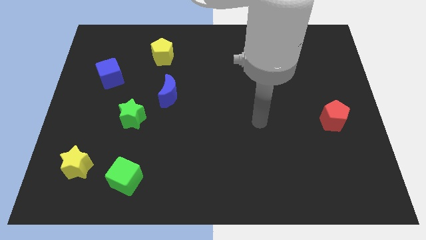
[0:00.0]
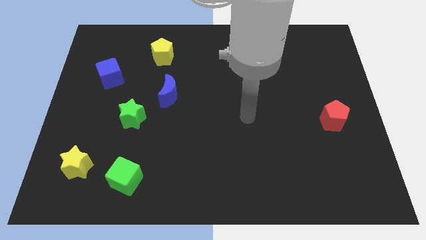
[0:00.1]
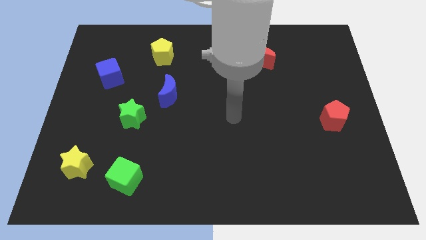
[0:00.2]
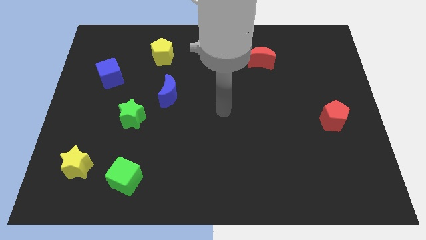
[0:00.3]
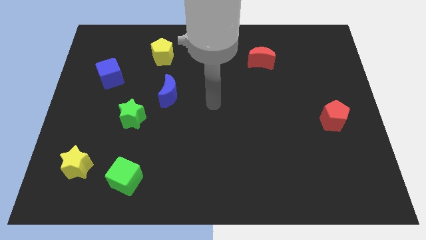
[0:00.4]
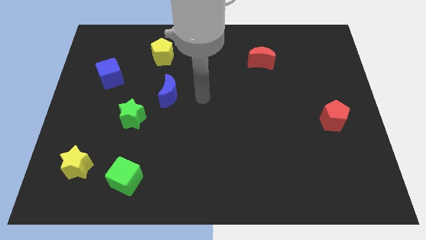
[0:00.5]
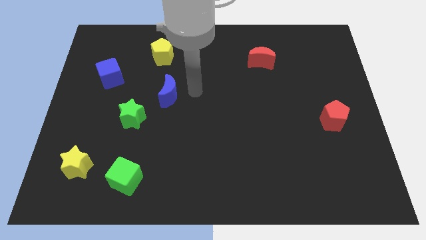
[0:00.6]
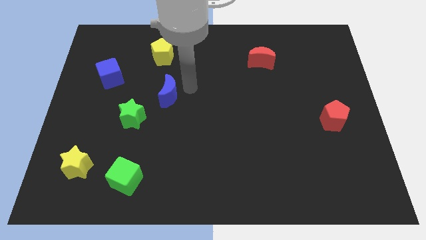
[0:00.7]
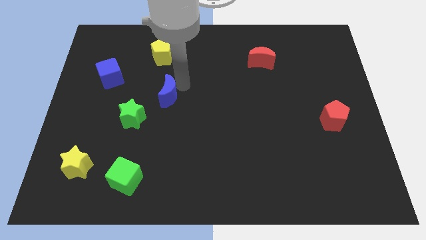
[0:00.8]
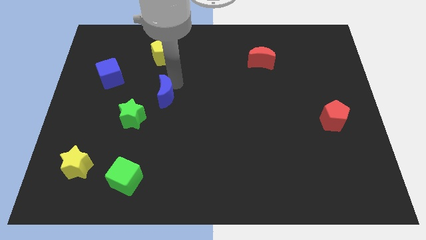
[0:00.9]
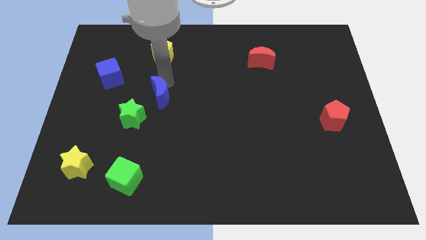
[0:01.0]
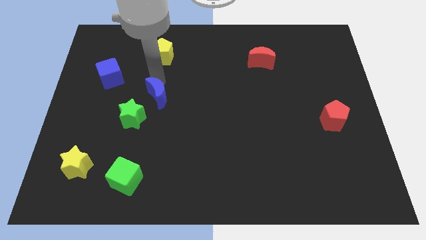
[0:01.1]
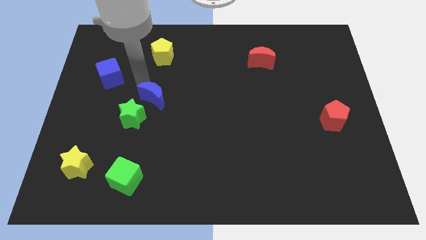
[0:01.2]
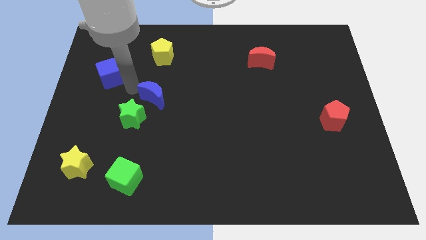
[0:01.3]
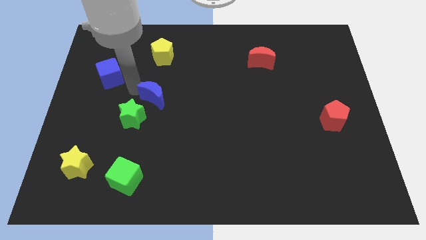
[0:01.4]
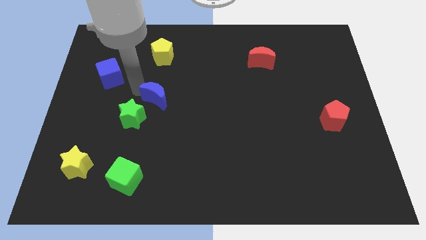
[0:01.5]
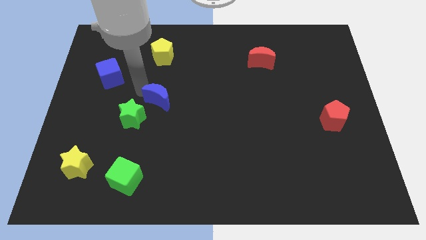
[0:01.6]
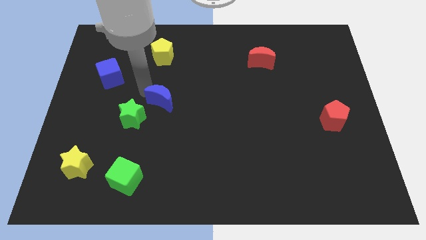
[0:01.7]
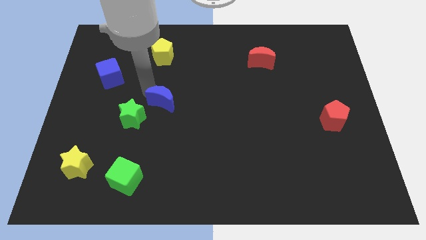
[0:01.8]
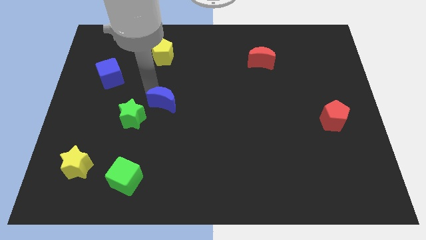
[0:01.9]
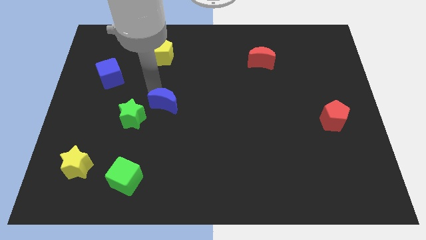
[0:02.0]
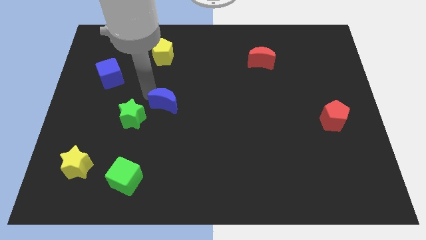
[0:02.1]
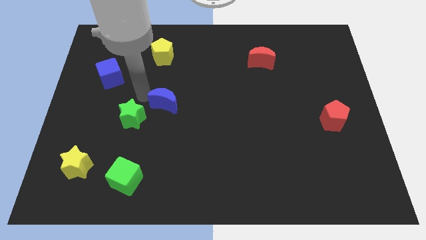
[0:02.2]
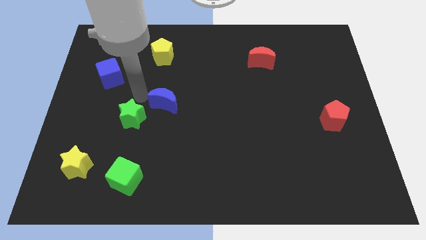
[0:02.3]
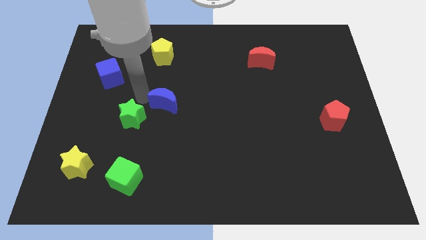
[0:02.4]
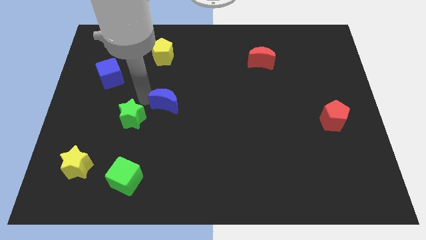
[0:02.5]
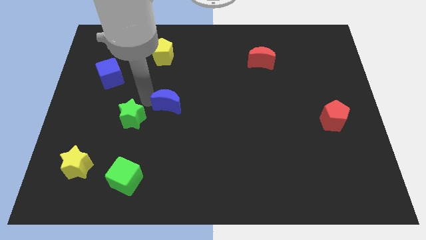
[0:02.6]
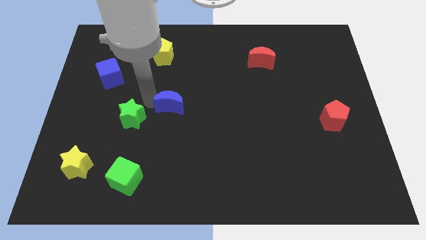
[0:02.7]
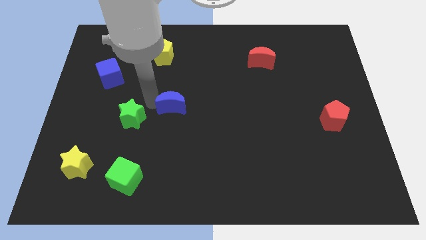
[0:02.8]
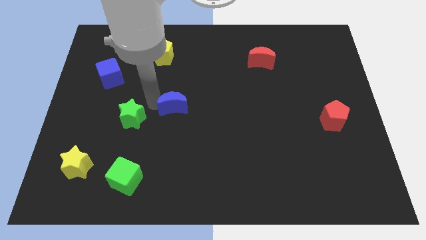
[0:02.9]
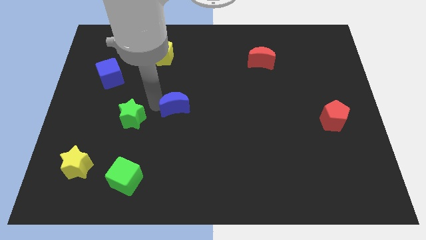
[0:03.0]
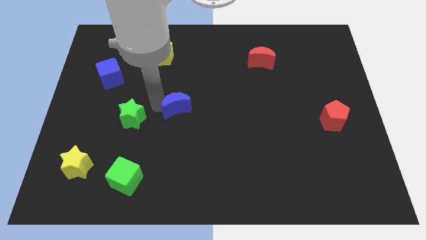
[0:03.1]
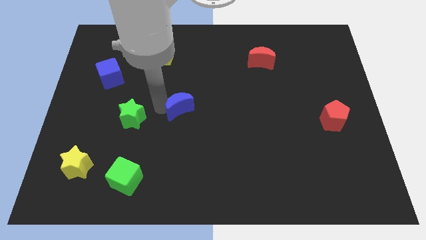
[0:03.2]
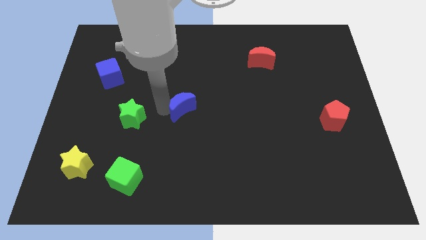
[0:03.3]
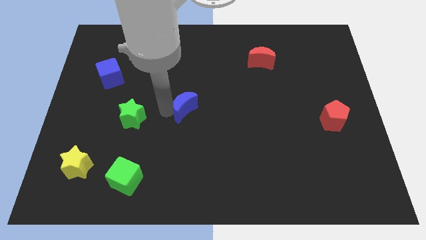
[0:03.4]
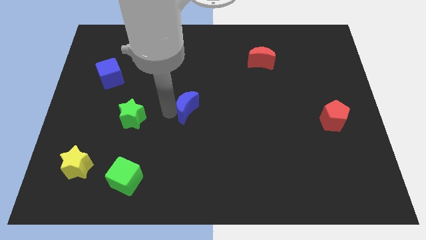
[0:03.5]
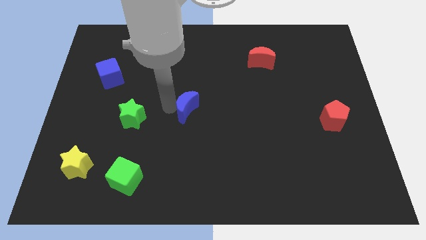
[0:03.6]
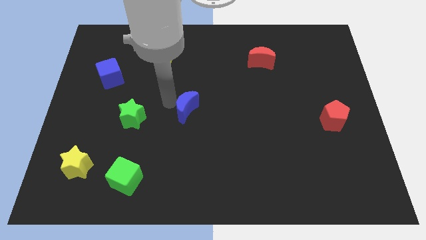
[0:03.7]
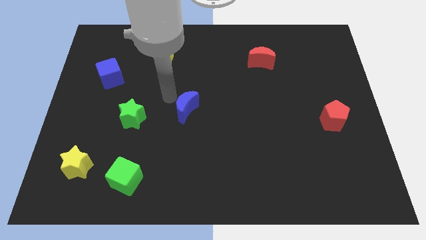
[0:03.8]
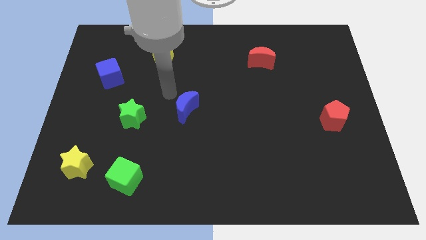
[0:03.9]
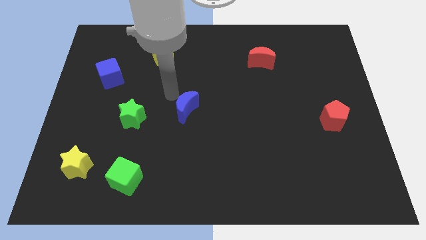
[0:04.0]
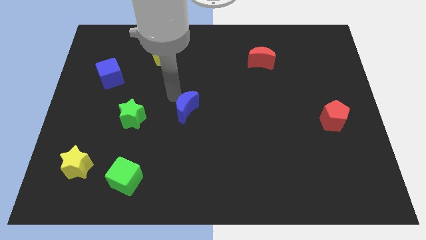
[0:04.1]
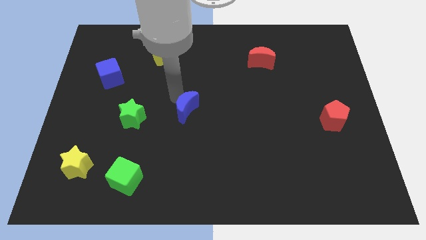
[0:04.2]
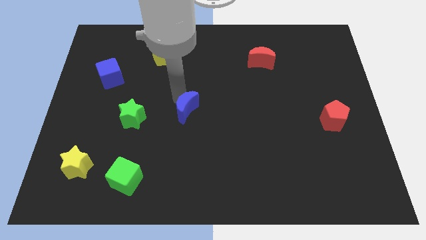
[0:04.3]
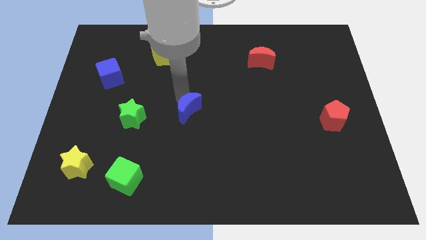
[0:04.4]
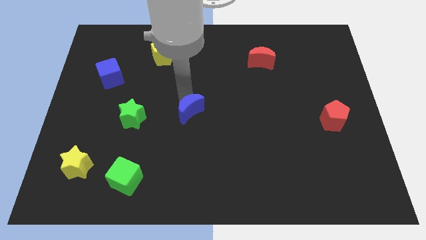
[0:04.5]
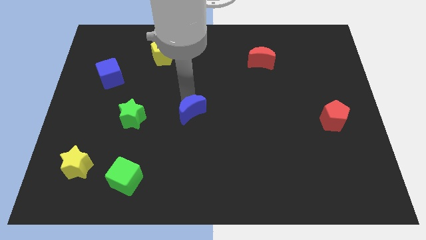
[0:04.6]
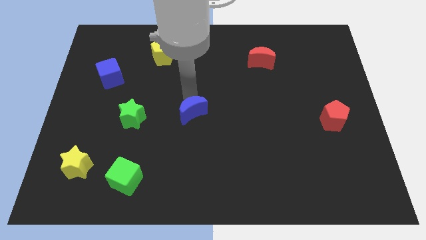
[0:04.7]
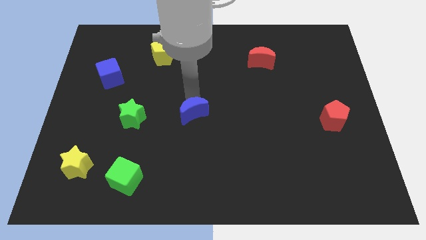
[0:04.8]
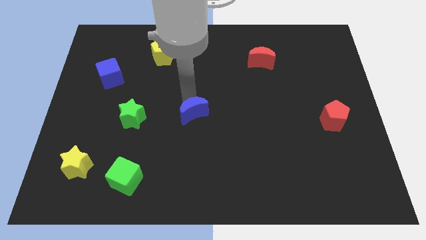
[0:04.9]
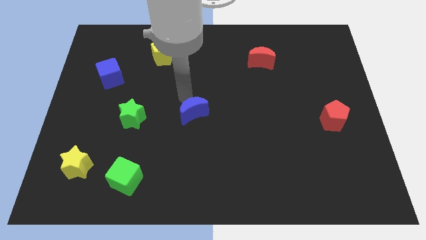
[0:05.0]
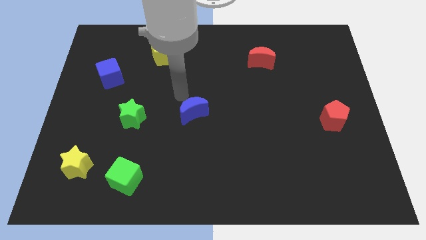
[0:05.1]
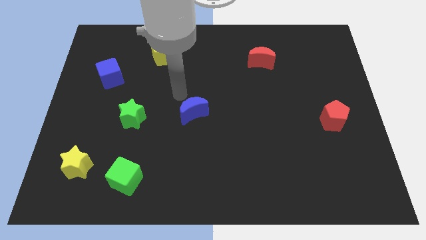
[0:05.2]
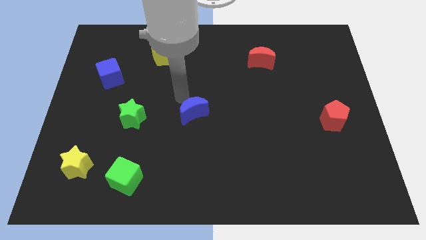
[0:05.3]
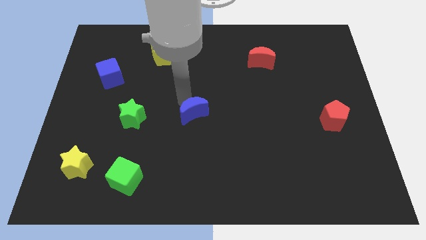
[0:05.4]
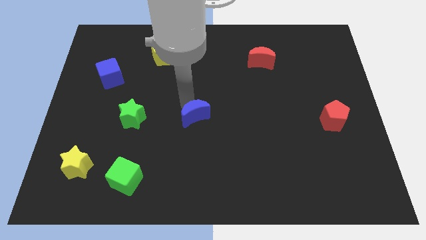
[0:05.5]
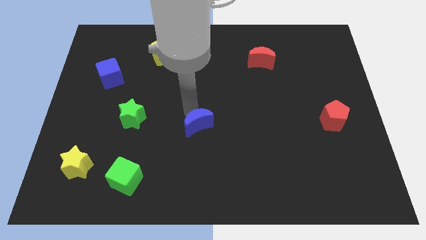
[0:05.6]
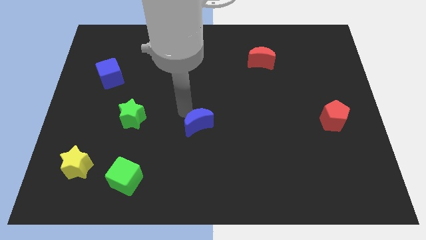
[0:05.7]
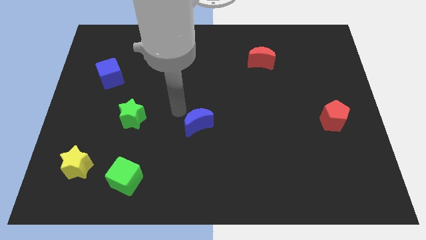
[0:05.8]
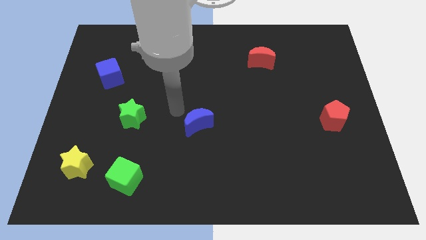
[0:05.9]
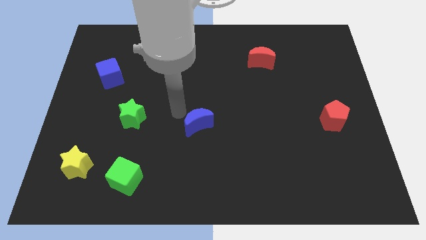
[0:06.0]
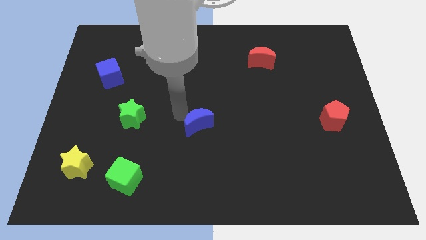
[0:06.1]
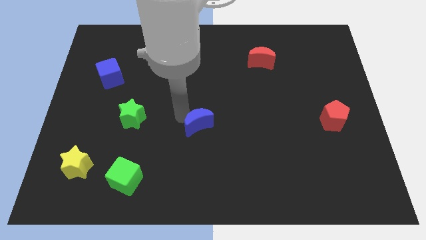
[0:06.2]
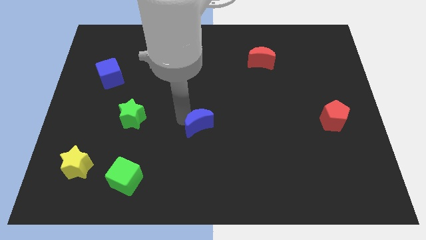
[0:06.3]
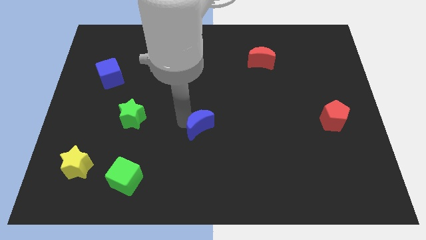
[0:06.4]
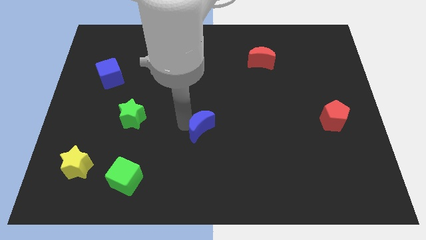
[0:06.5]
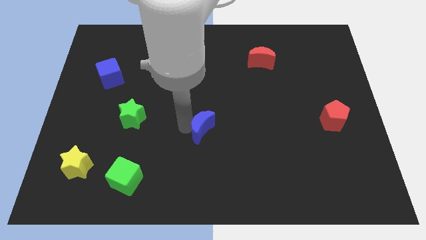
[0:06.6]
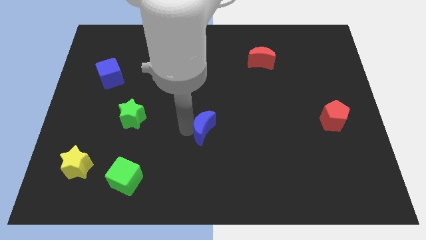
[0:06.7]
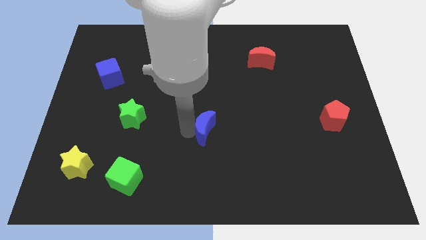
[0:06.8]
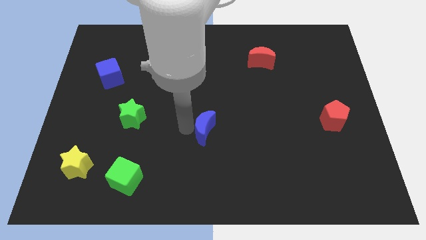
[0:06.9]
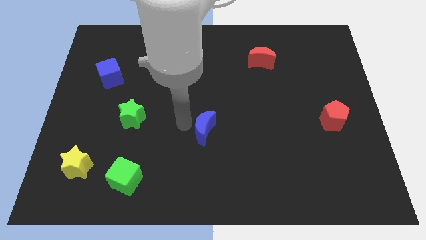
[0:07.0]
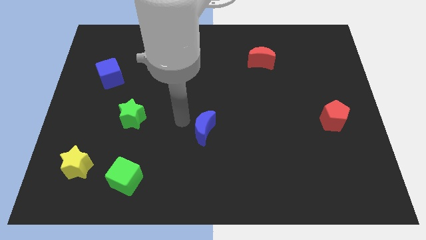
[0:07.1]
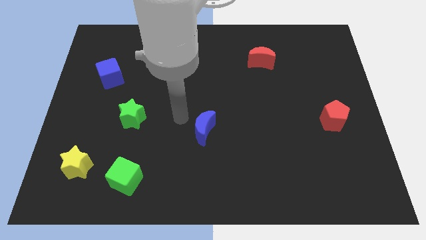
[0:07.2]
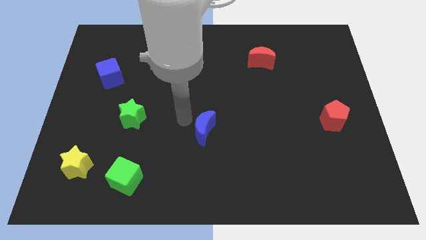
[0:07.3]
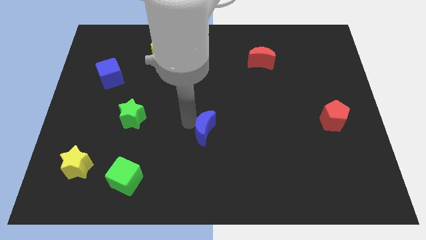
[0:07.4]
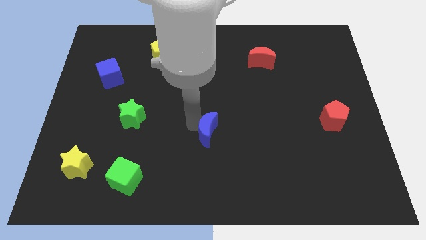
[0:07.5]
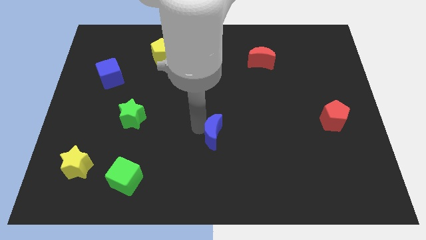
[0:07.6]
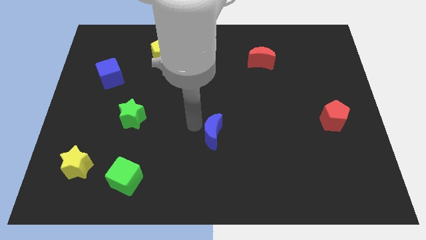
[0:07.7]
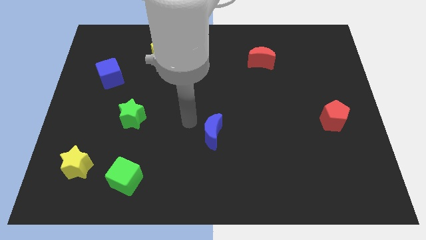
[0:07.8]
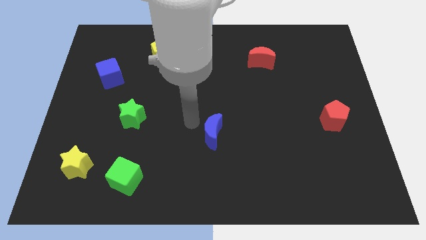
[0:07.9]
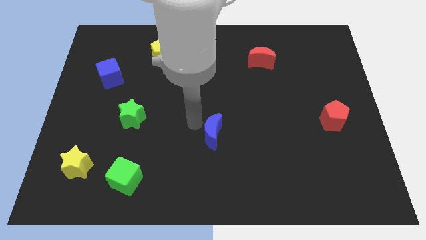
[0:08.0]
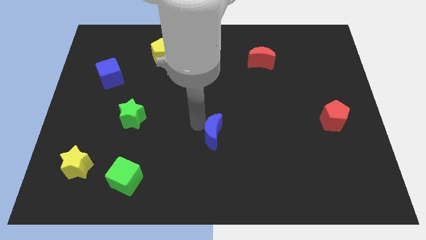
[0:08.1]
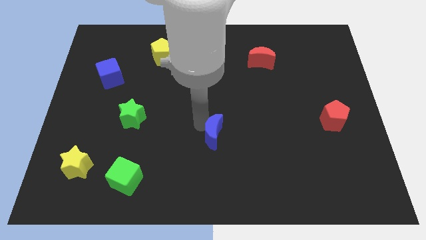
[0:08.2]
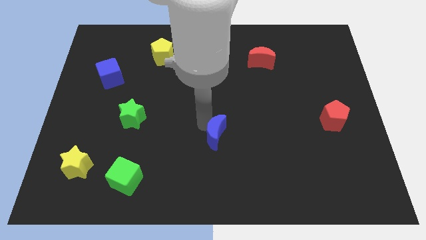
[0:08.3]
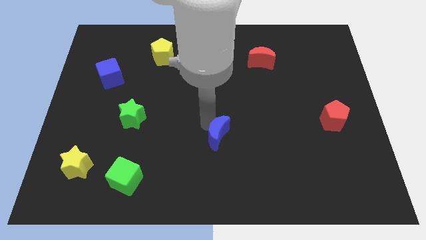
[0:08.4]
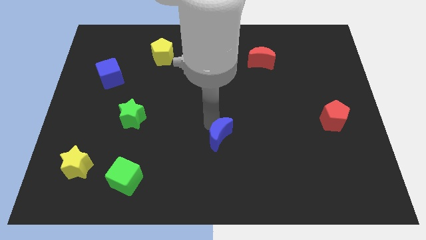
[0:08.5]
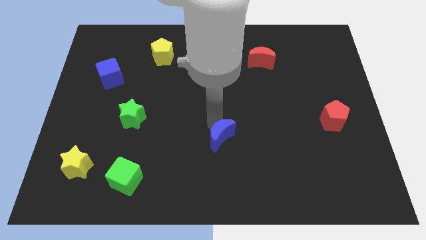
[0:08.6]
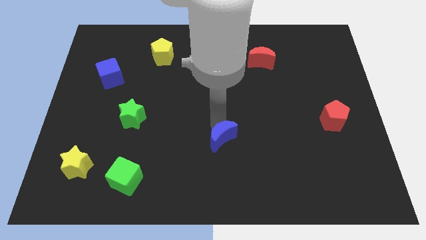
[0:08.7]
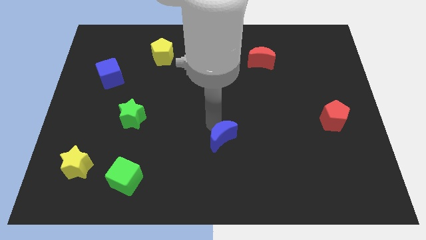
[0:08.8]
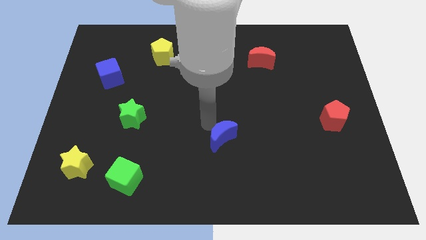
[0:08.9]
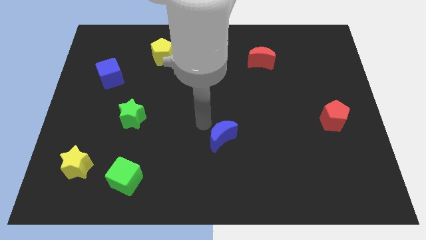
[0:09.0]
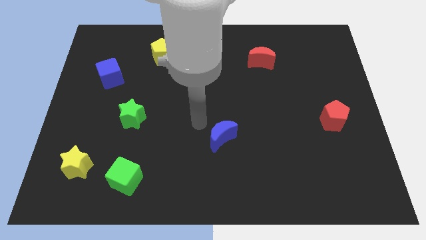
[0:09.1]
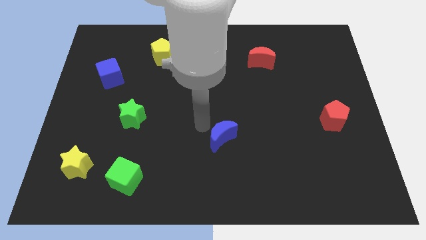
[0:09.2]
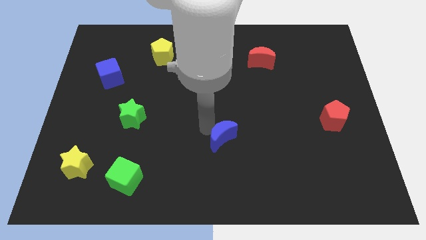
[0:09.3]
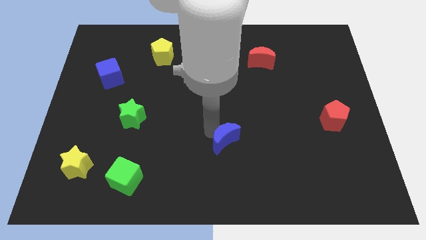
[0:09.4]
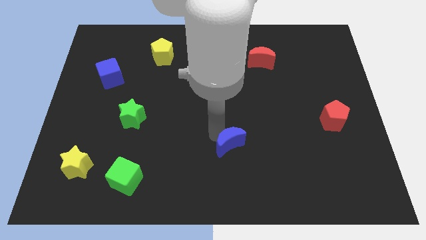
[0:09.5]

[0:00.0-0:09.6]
move the blue moon down and then right
